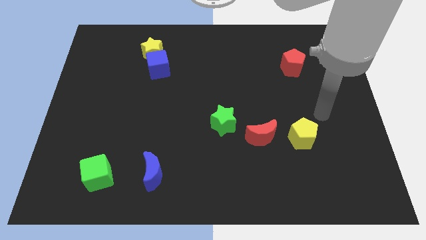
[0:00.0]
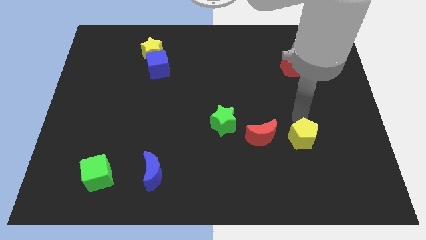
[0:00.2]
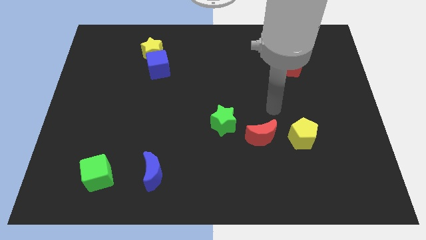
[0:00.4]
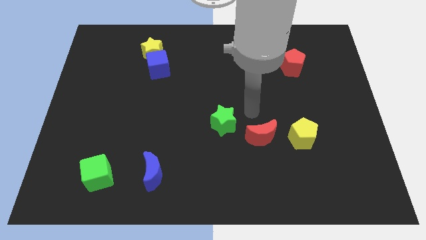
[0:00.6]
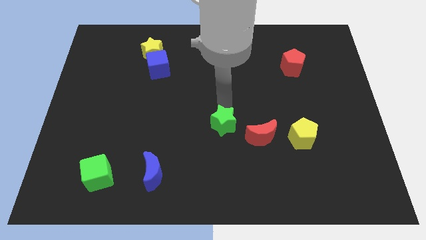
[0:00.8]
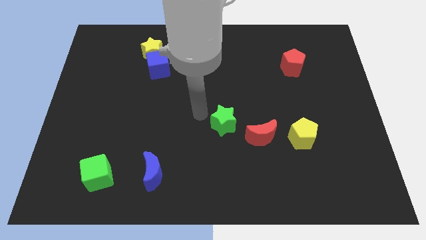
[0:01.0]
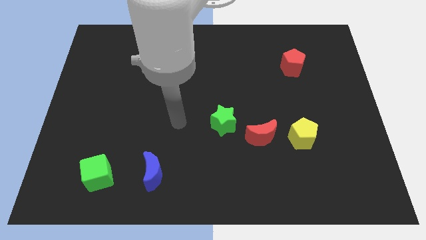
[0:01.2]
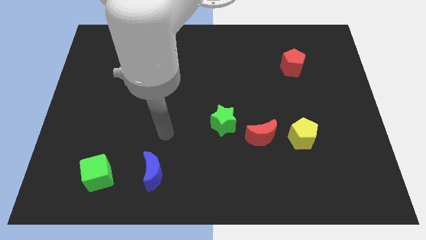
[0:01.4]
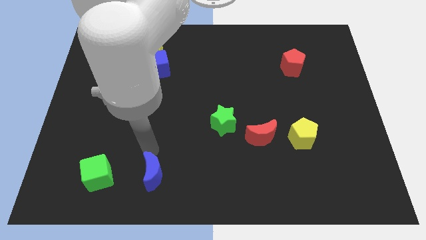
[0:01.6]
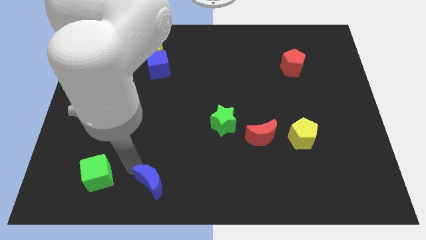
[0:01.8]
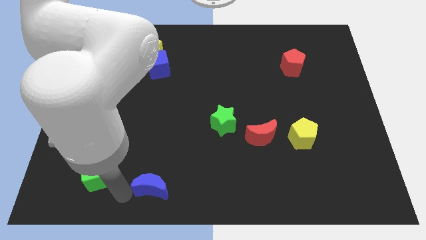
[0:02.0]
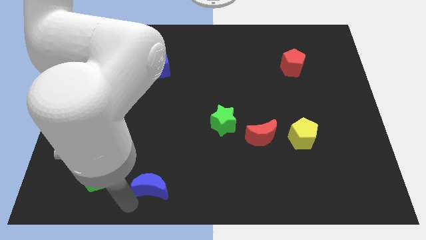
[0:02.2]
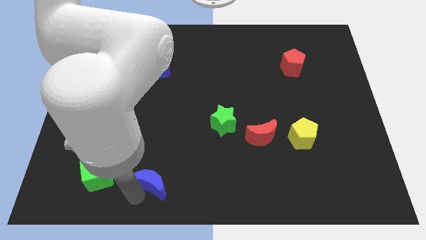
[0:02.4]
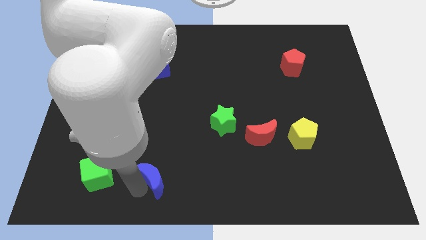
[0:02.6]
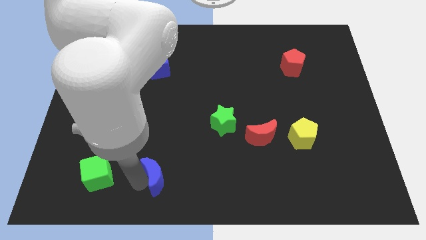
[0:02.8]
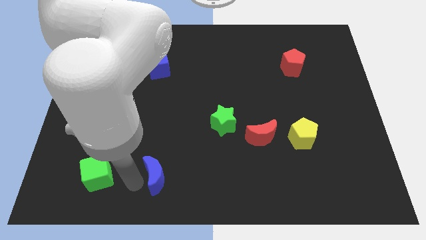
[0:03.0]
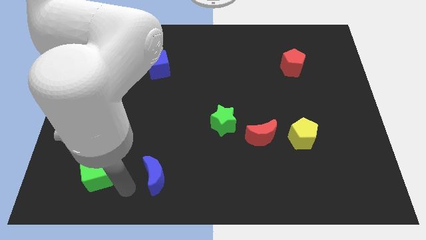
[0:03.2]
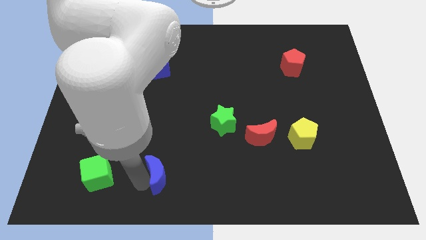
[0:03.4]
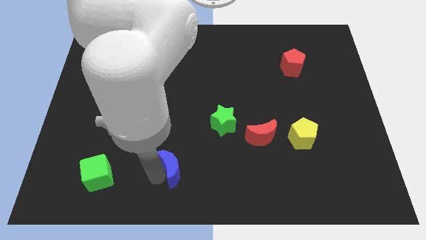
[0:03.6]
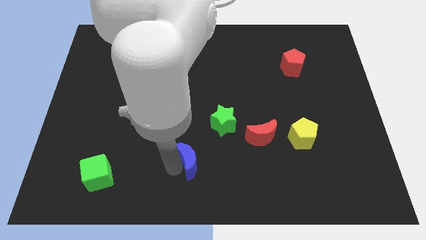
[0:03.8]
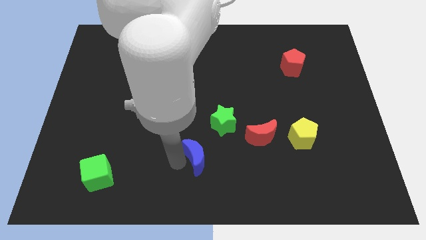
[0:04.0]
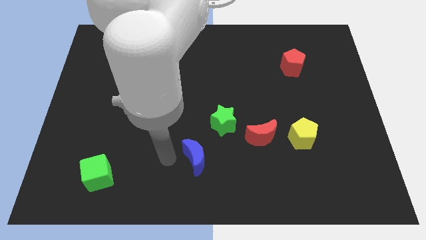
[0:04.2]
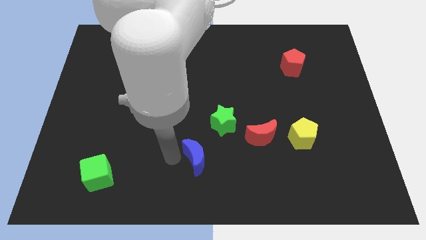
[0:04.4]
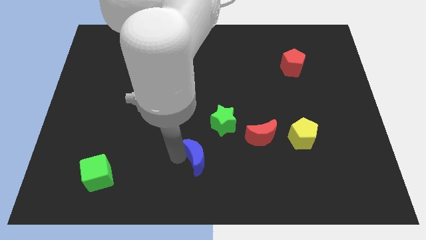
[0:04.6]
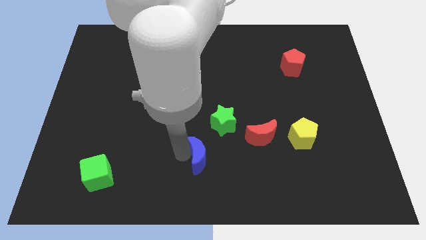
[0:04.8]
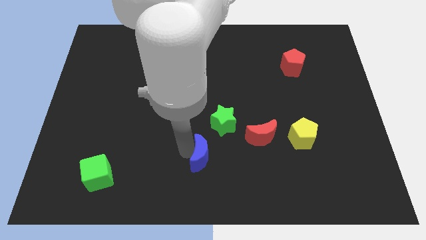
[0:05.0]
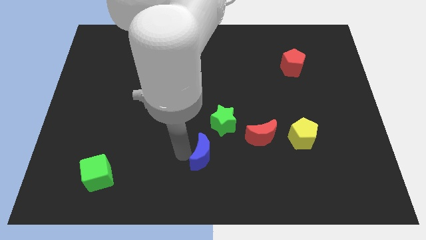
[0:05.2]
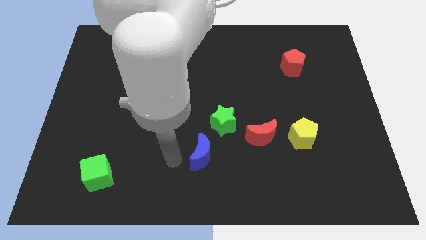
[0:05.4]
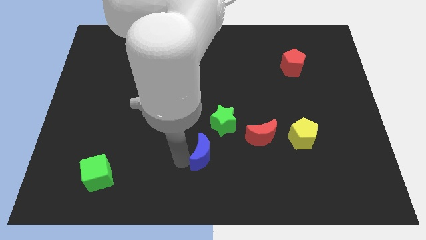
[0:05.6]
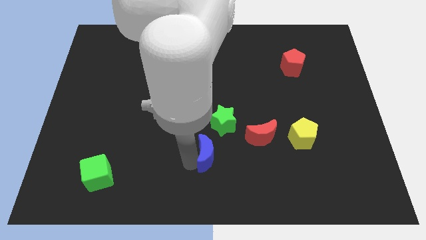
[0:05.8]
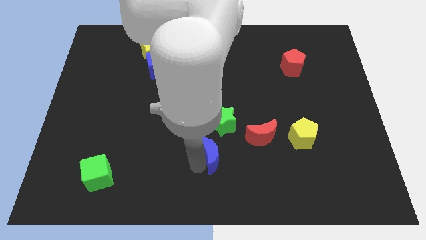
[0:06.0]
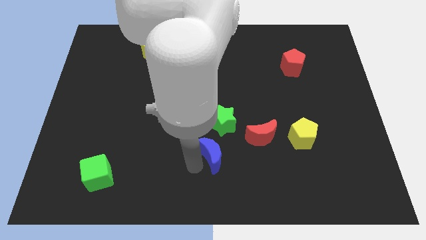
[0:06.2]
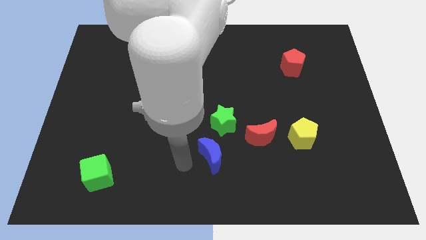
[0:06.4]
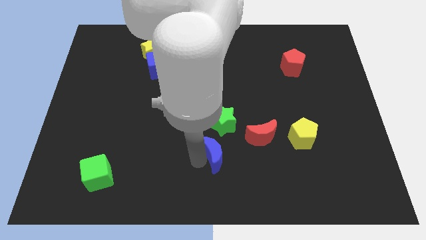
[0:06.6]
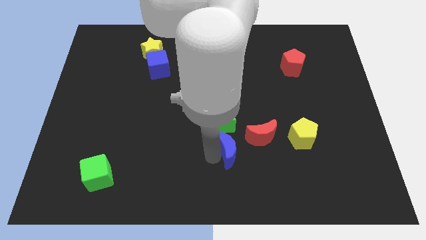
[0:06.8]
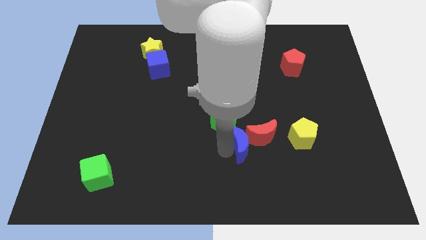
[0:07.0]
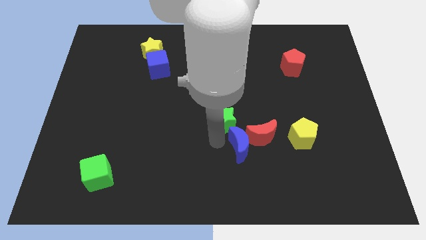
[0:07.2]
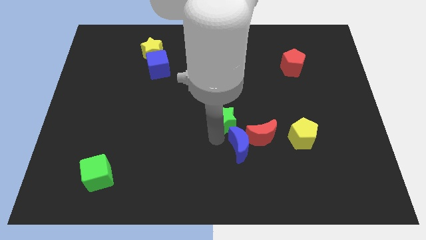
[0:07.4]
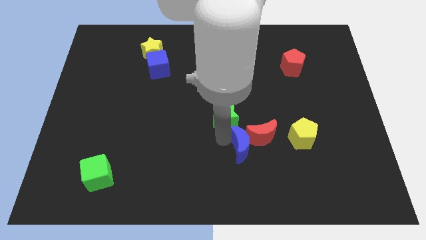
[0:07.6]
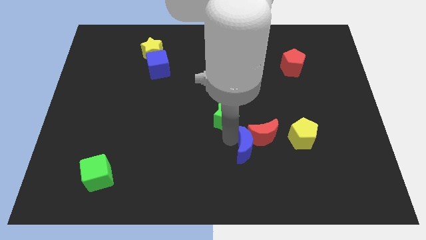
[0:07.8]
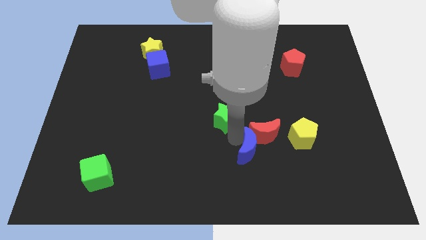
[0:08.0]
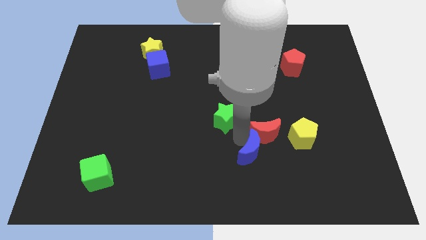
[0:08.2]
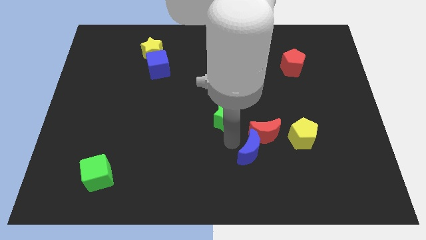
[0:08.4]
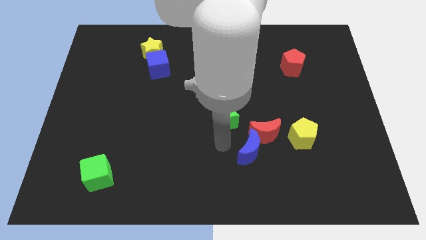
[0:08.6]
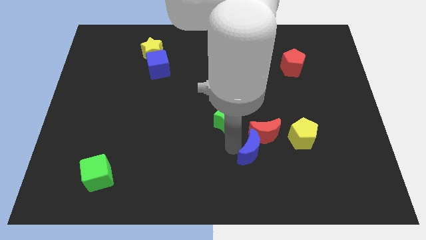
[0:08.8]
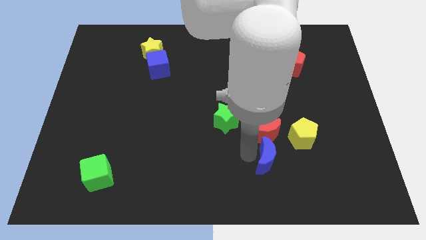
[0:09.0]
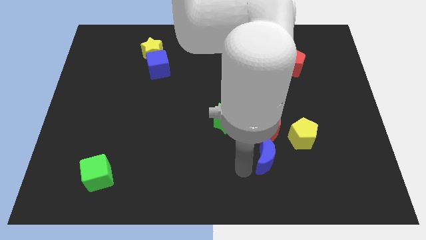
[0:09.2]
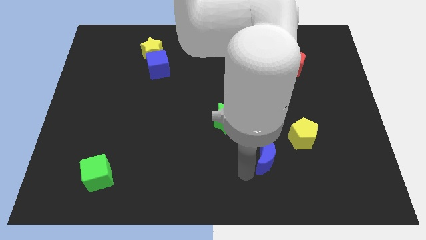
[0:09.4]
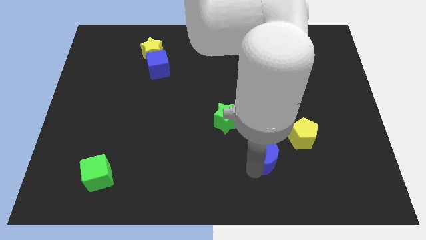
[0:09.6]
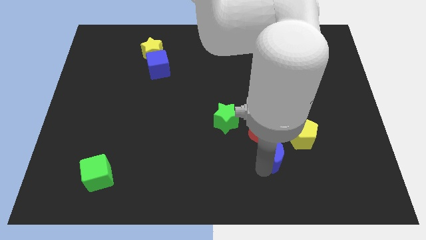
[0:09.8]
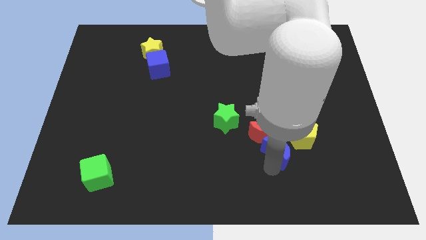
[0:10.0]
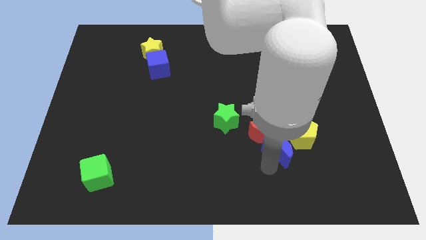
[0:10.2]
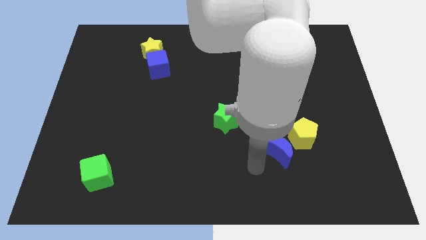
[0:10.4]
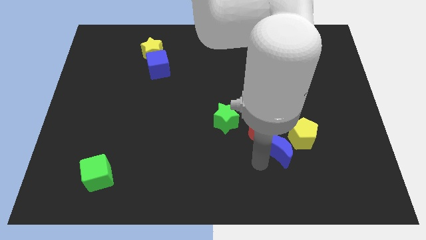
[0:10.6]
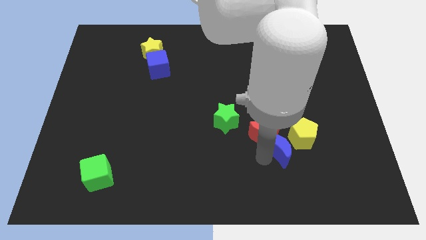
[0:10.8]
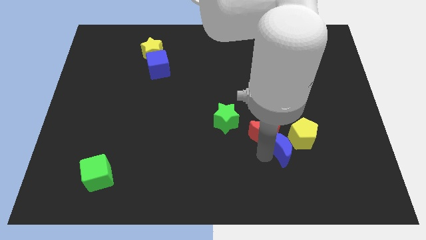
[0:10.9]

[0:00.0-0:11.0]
put the blue moon close to the yellow pentagon

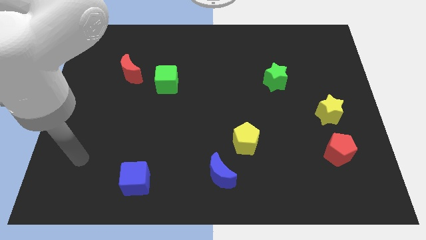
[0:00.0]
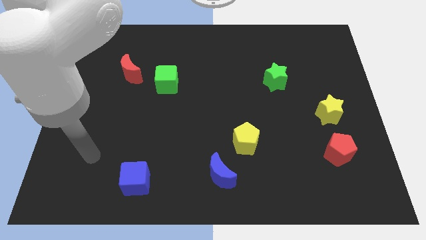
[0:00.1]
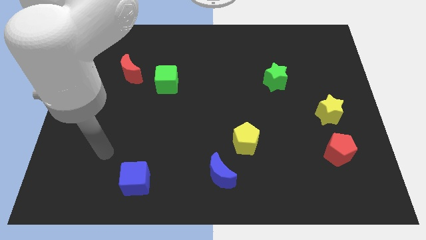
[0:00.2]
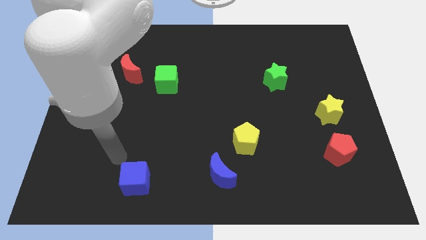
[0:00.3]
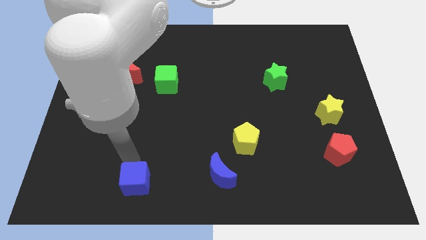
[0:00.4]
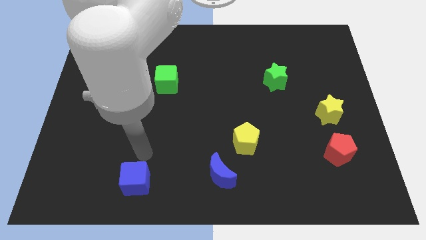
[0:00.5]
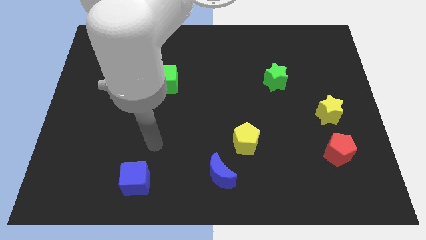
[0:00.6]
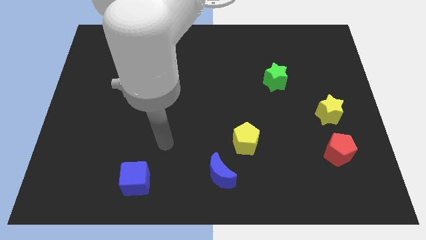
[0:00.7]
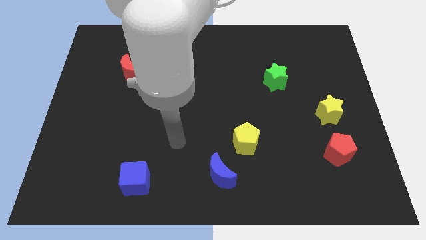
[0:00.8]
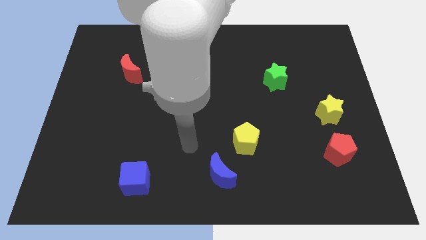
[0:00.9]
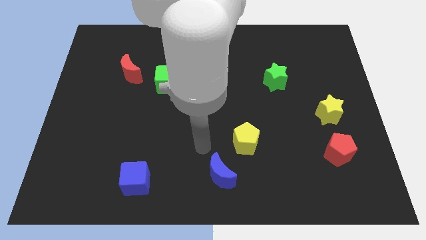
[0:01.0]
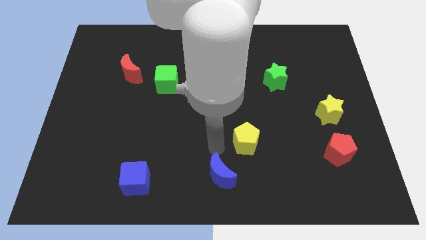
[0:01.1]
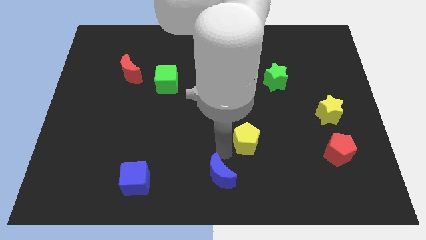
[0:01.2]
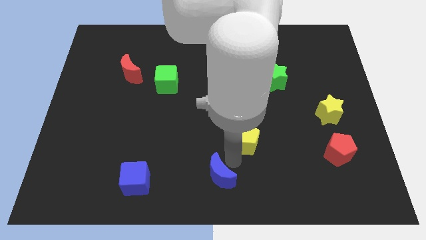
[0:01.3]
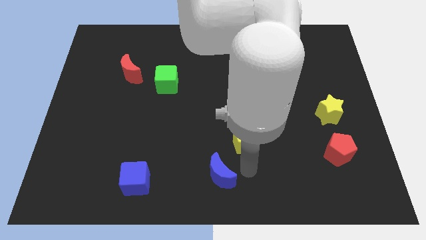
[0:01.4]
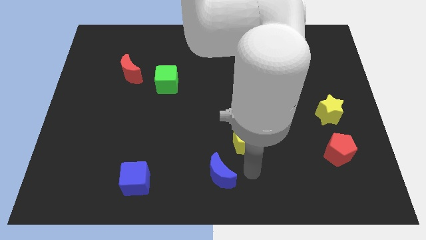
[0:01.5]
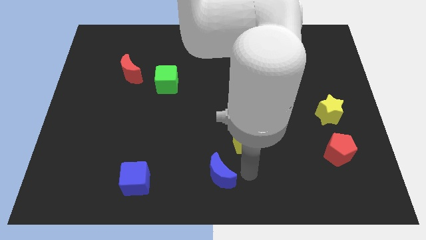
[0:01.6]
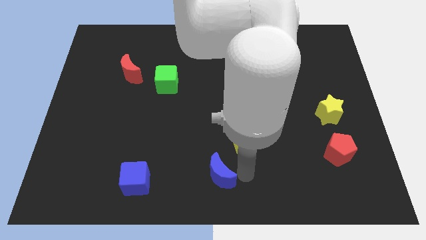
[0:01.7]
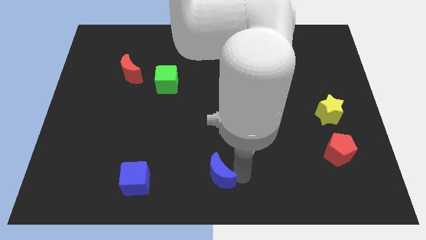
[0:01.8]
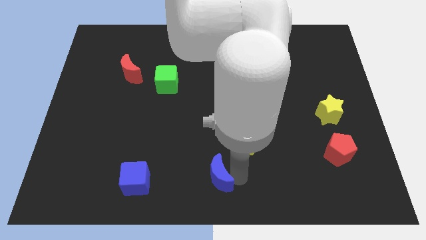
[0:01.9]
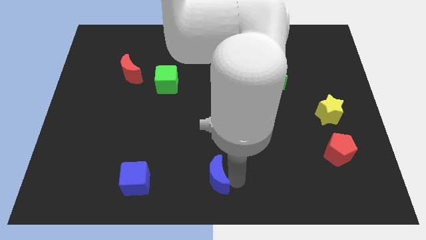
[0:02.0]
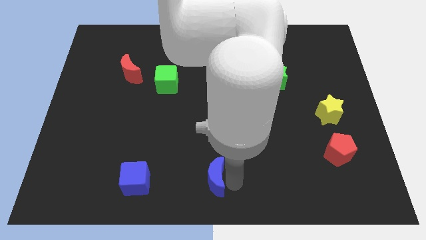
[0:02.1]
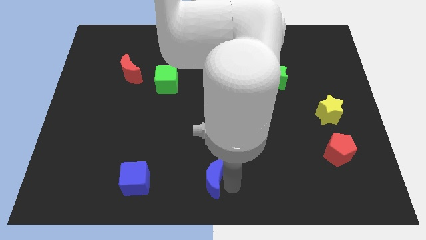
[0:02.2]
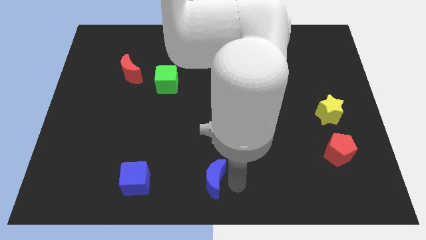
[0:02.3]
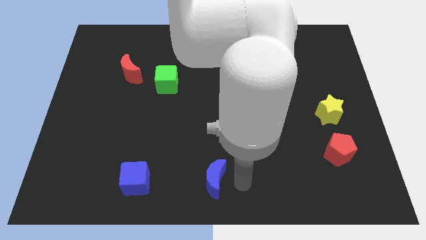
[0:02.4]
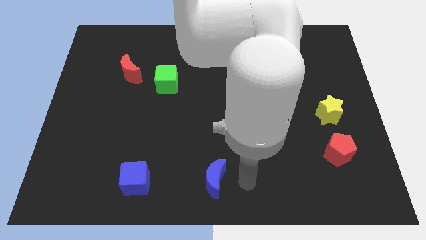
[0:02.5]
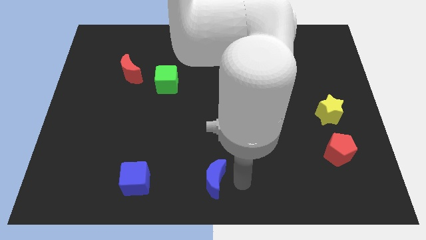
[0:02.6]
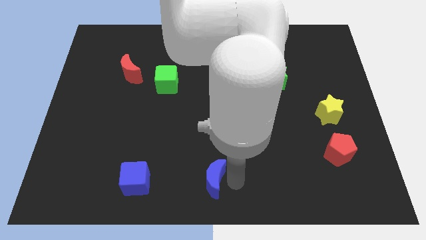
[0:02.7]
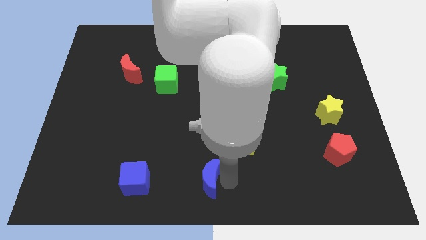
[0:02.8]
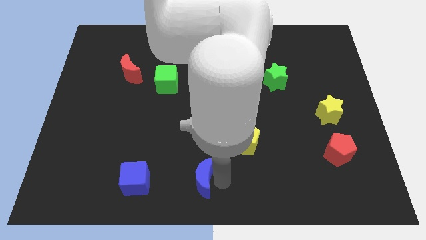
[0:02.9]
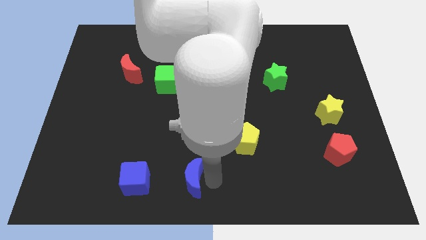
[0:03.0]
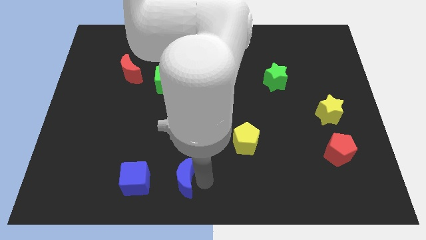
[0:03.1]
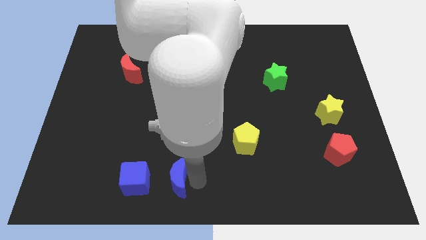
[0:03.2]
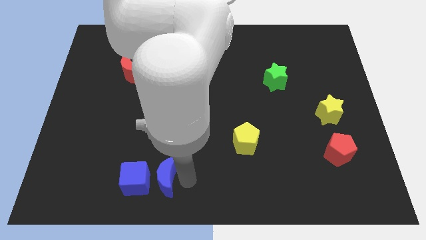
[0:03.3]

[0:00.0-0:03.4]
move the blue moon to the blue cube
